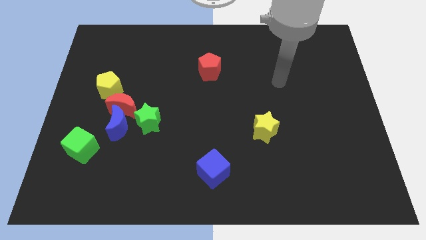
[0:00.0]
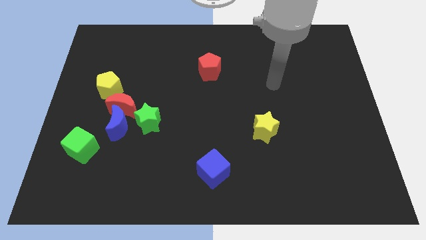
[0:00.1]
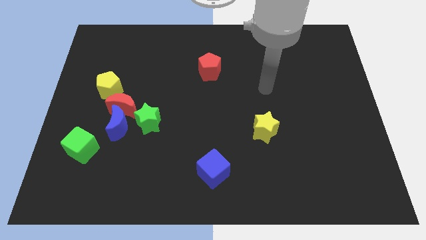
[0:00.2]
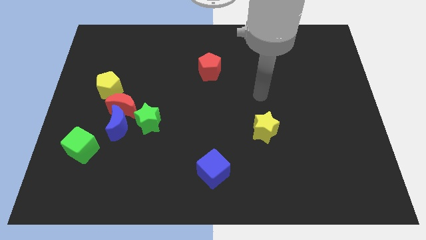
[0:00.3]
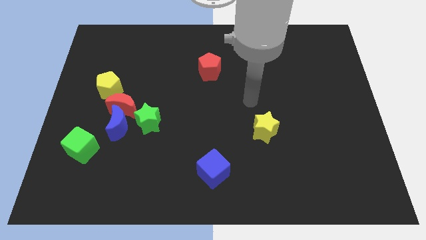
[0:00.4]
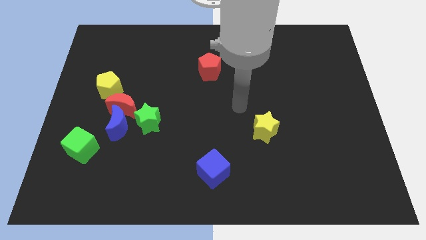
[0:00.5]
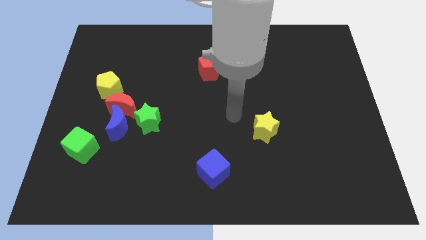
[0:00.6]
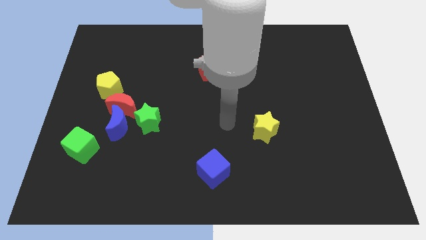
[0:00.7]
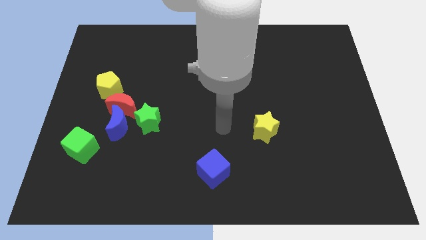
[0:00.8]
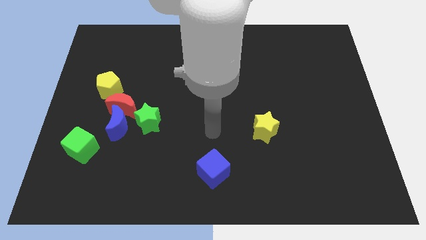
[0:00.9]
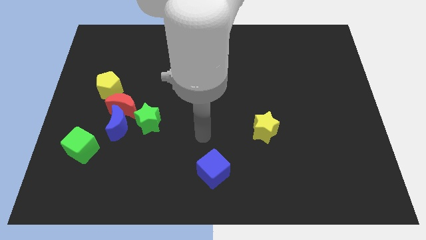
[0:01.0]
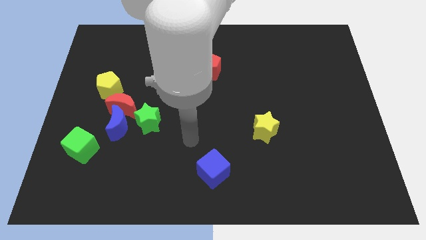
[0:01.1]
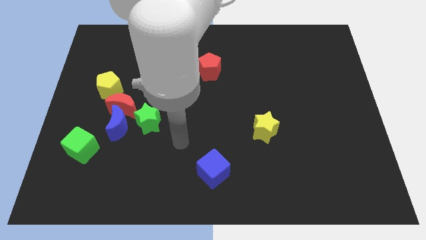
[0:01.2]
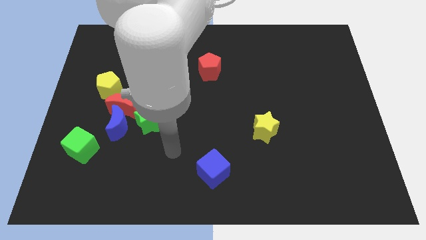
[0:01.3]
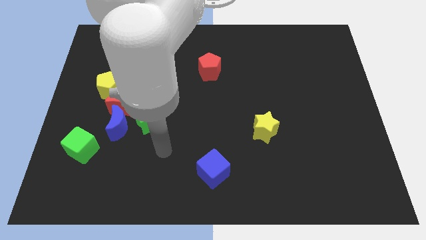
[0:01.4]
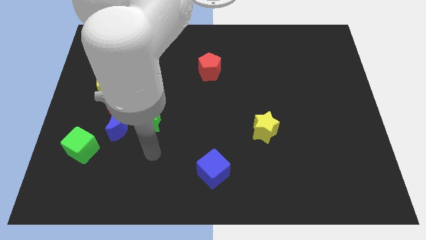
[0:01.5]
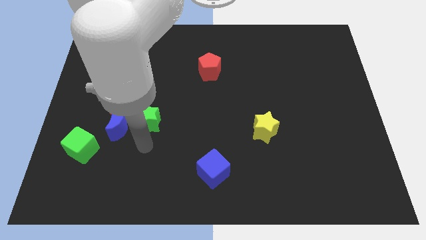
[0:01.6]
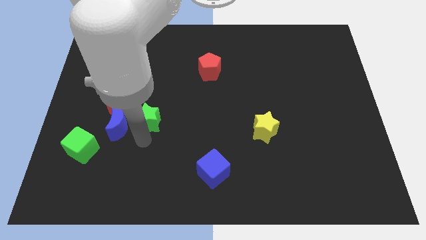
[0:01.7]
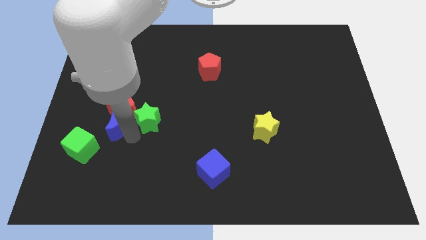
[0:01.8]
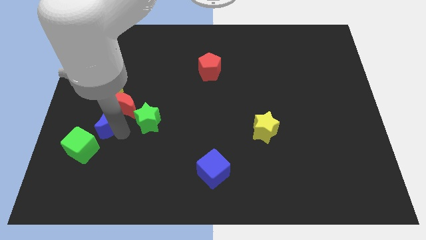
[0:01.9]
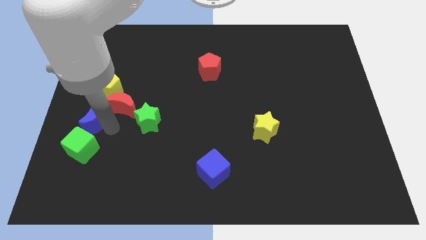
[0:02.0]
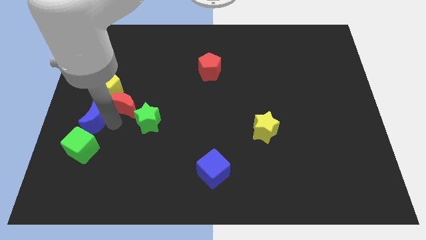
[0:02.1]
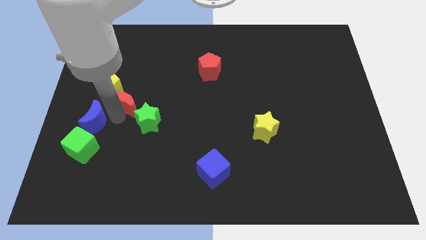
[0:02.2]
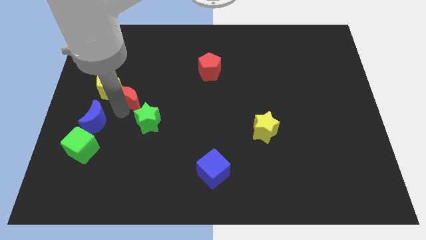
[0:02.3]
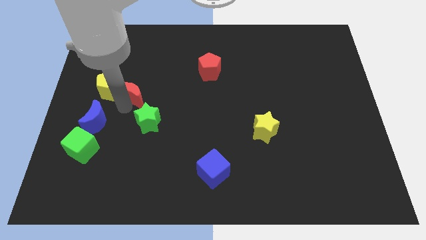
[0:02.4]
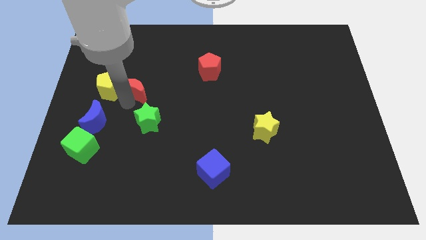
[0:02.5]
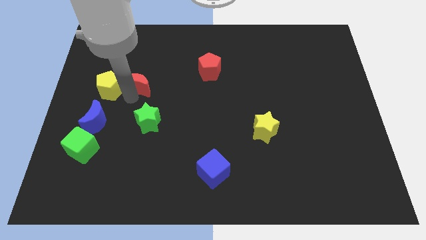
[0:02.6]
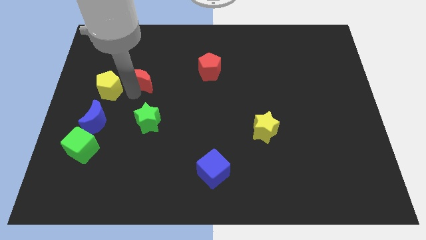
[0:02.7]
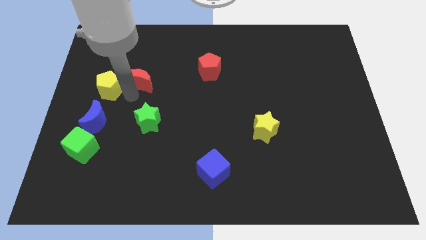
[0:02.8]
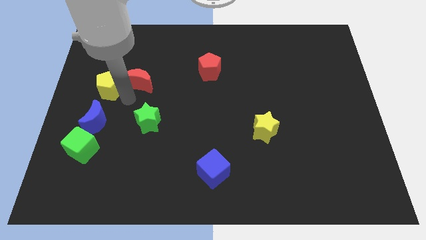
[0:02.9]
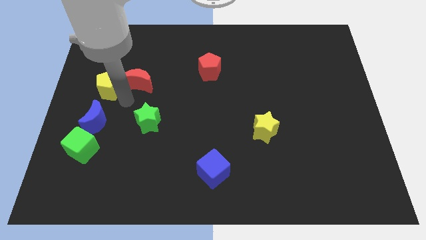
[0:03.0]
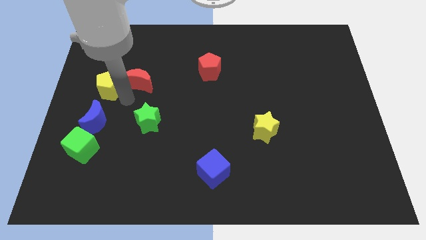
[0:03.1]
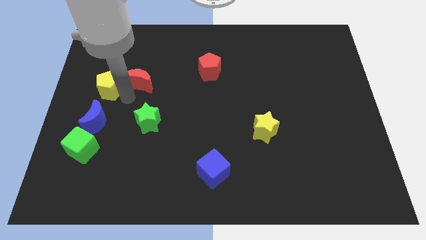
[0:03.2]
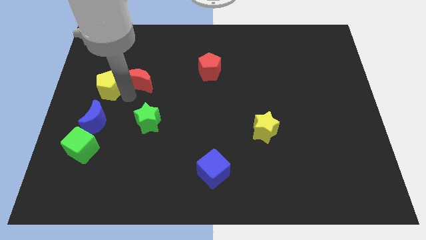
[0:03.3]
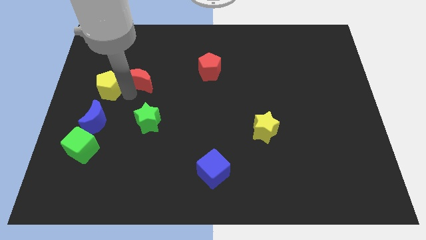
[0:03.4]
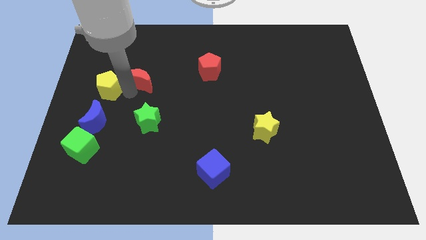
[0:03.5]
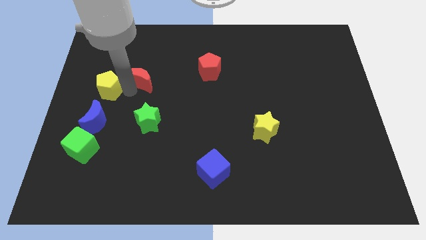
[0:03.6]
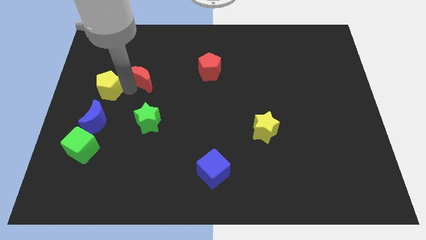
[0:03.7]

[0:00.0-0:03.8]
separate the red moon from the group

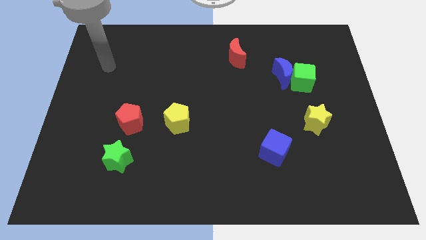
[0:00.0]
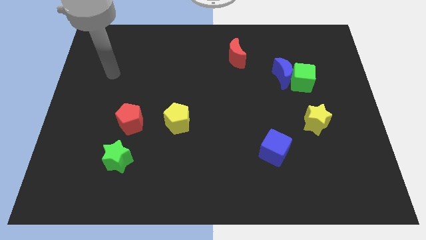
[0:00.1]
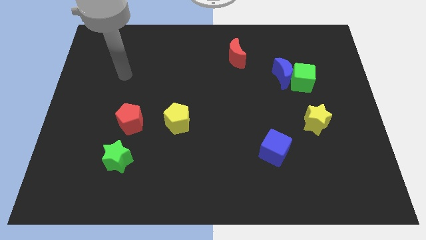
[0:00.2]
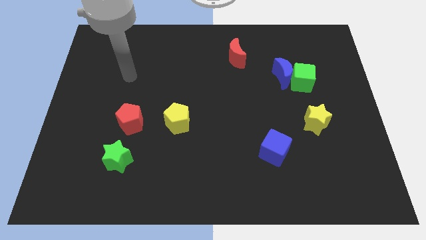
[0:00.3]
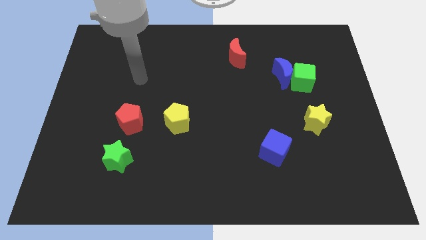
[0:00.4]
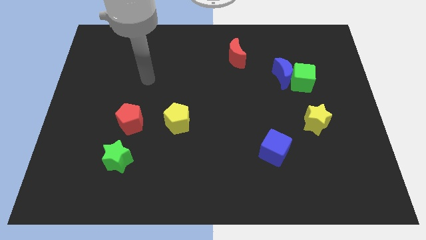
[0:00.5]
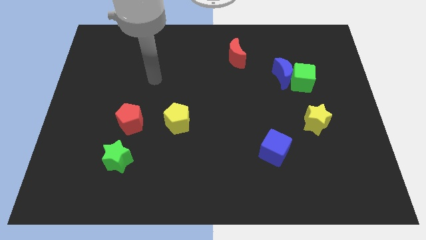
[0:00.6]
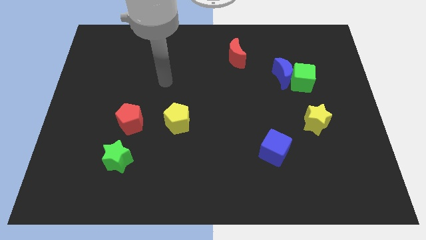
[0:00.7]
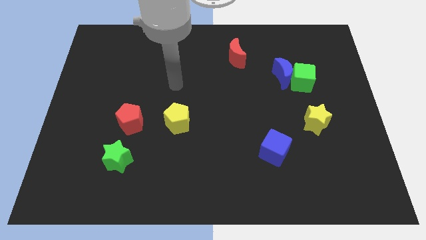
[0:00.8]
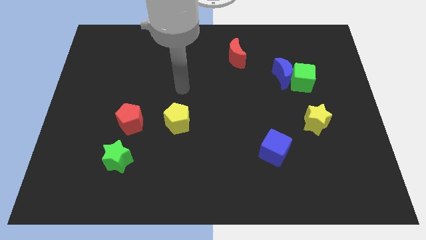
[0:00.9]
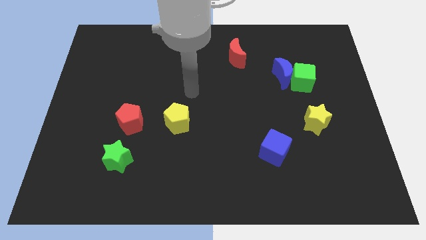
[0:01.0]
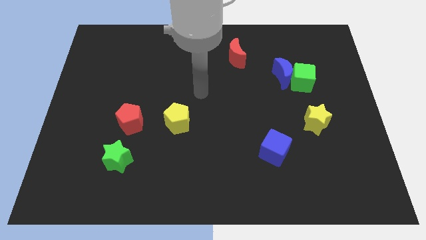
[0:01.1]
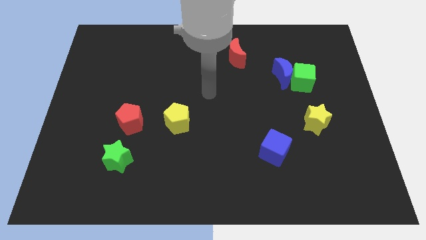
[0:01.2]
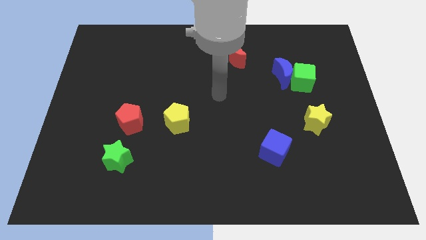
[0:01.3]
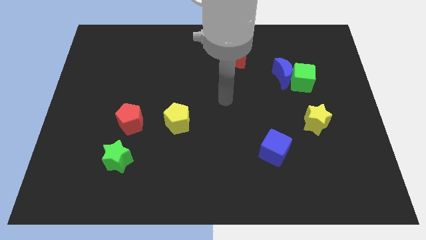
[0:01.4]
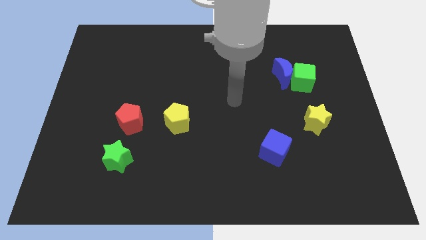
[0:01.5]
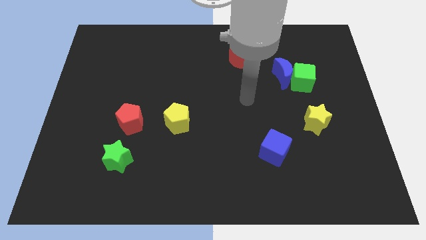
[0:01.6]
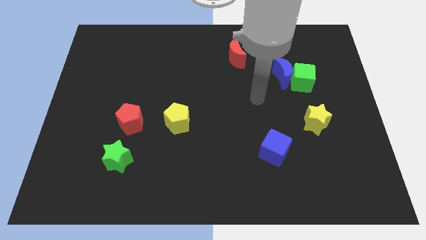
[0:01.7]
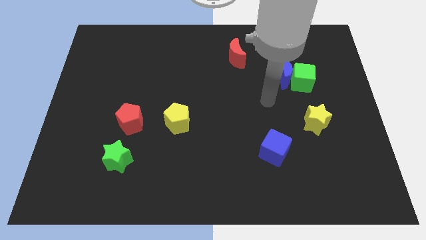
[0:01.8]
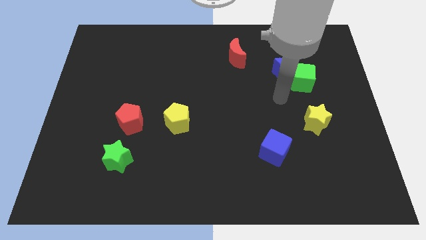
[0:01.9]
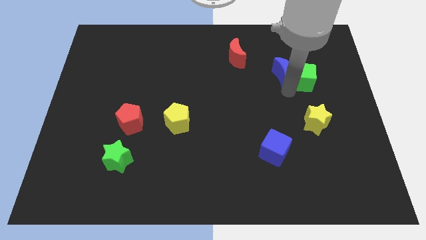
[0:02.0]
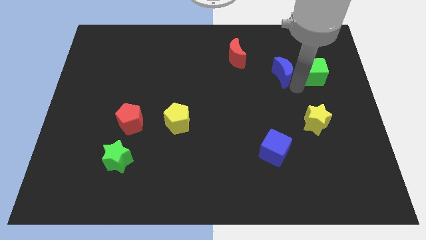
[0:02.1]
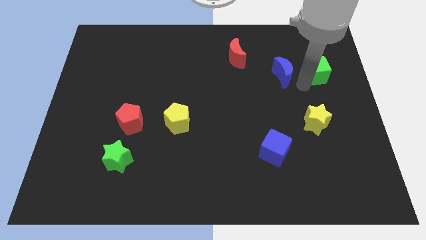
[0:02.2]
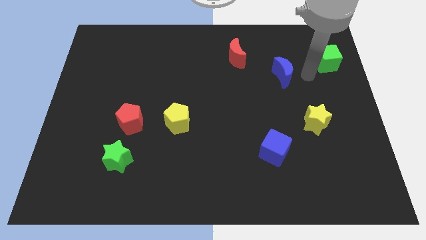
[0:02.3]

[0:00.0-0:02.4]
pull the blue moon apart from the green cube

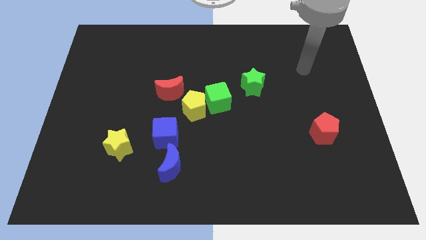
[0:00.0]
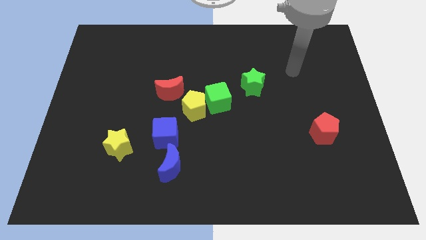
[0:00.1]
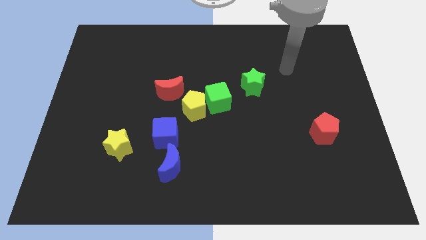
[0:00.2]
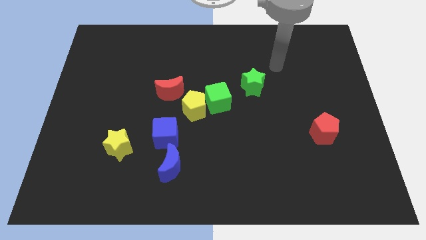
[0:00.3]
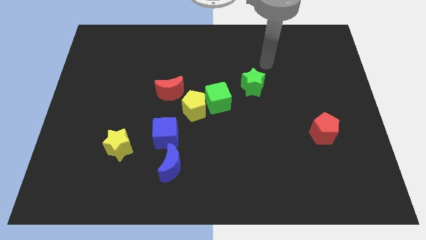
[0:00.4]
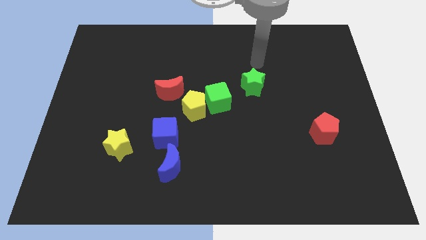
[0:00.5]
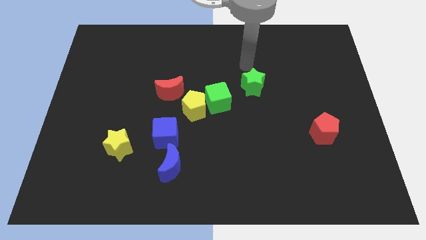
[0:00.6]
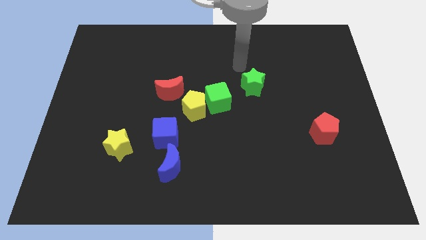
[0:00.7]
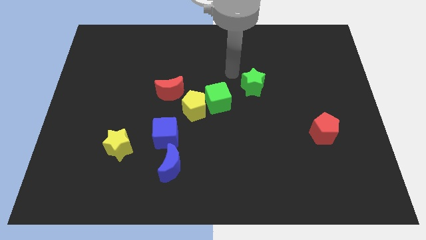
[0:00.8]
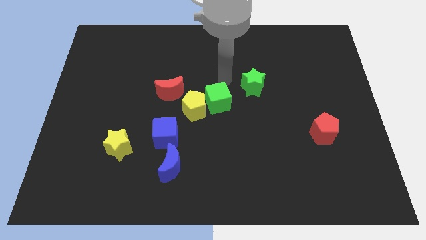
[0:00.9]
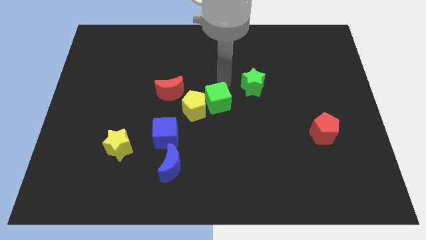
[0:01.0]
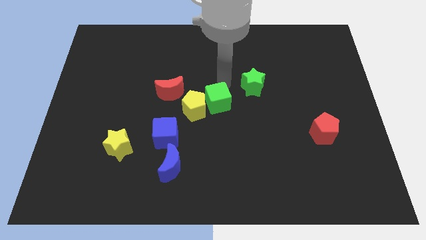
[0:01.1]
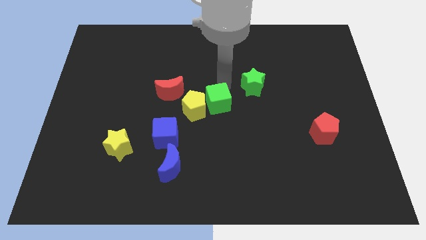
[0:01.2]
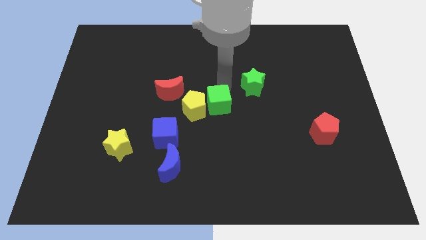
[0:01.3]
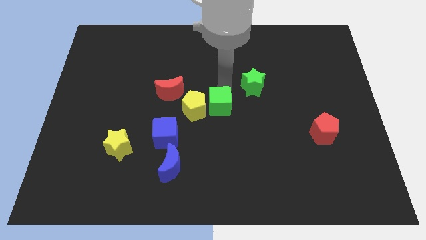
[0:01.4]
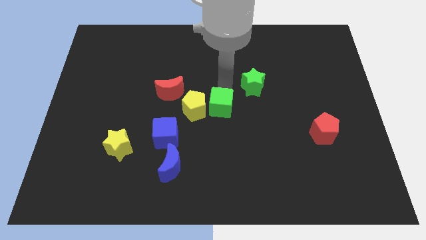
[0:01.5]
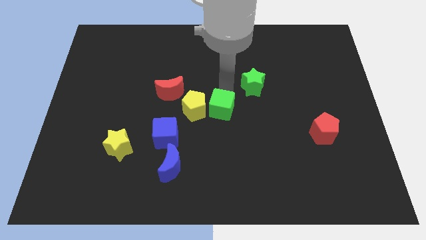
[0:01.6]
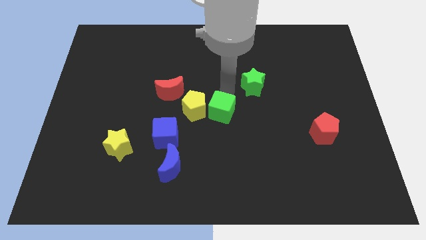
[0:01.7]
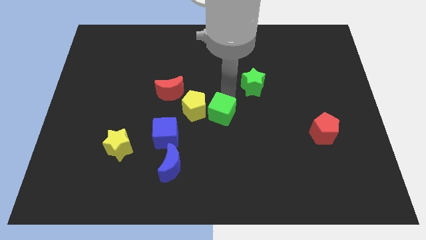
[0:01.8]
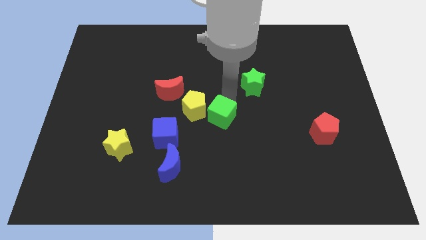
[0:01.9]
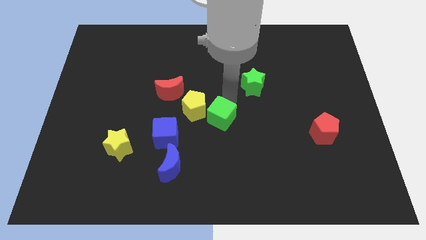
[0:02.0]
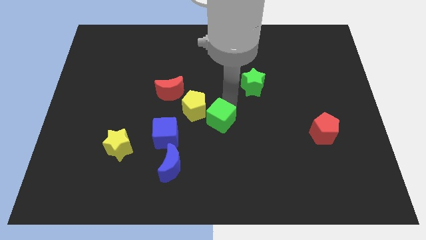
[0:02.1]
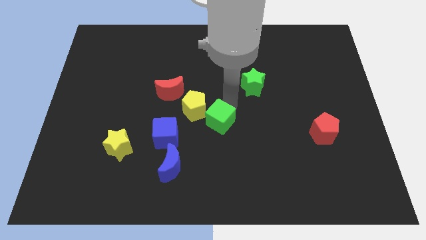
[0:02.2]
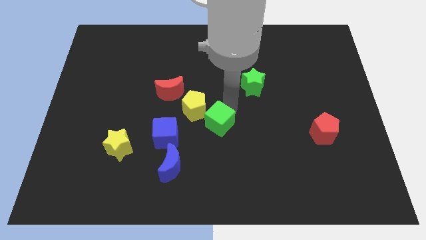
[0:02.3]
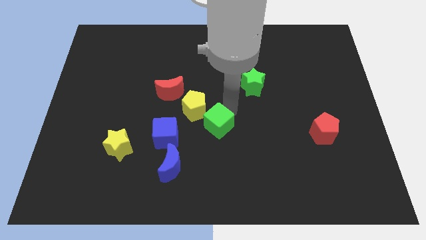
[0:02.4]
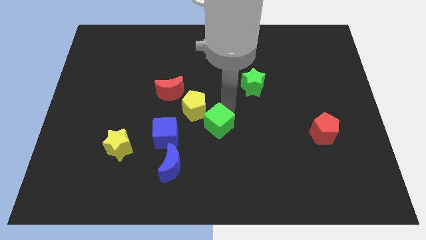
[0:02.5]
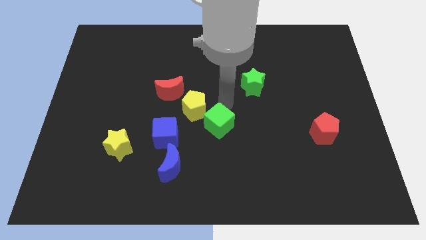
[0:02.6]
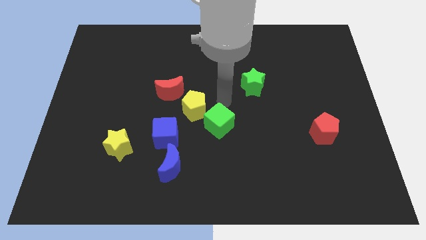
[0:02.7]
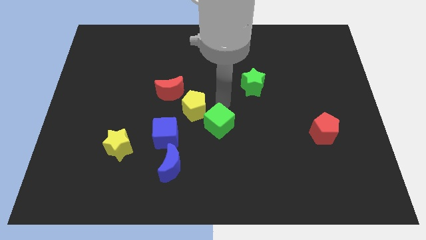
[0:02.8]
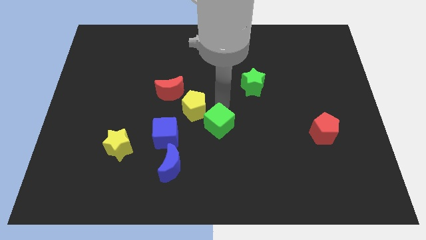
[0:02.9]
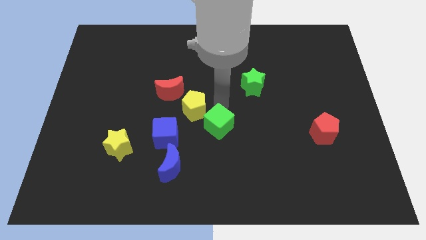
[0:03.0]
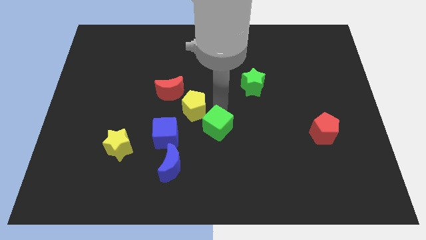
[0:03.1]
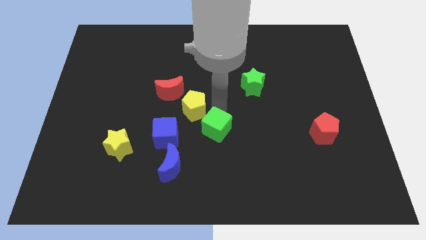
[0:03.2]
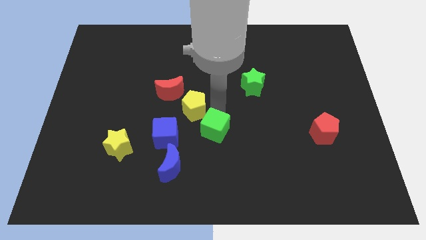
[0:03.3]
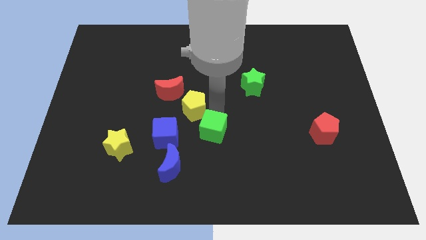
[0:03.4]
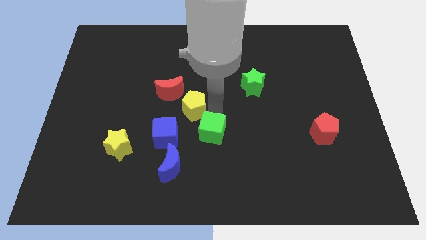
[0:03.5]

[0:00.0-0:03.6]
separate the green cube from the yellow pentagon and green star
